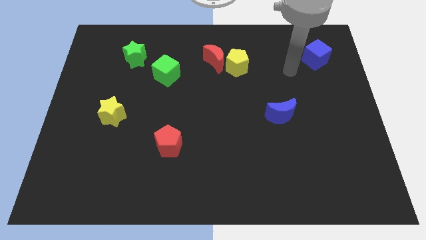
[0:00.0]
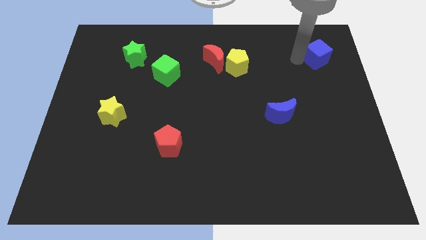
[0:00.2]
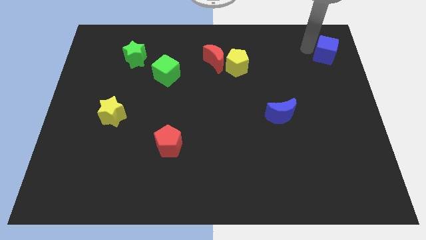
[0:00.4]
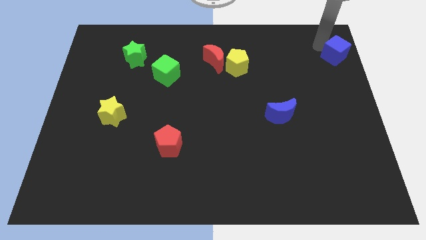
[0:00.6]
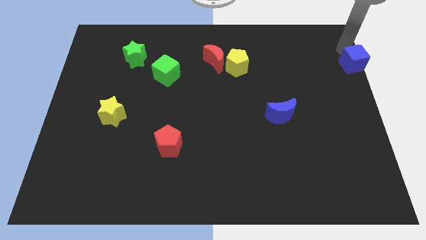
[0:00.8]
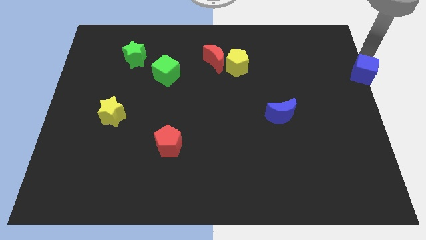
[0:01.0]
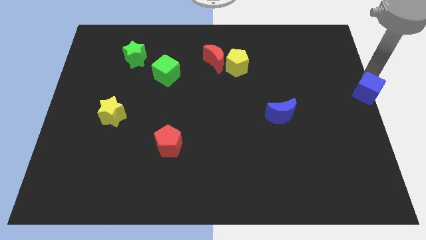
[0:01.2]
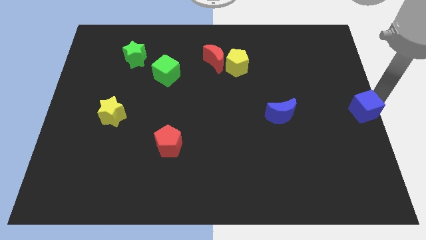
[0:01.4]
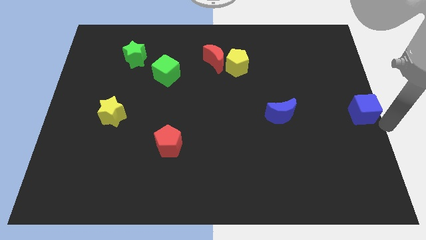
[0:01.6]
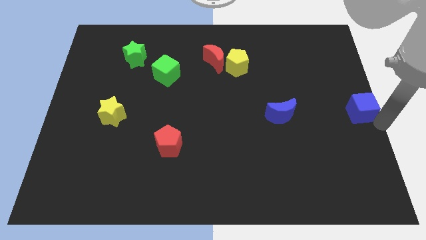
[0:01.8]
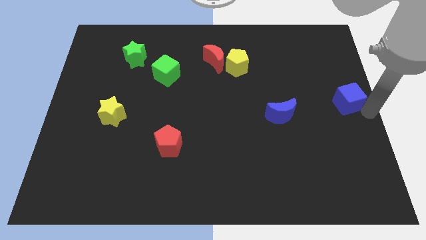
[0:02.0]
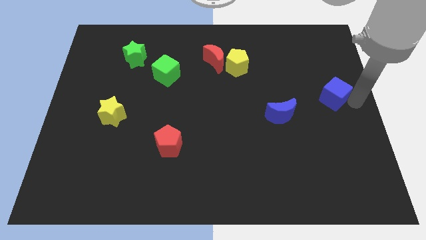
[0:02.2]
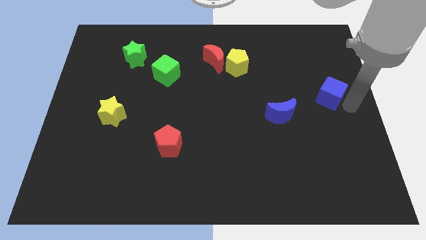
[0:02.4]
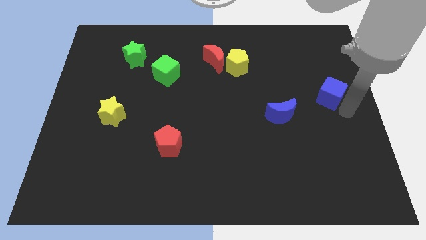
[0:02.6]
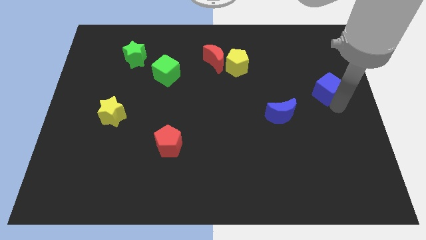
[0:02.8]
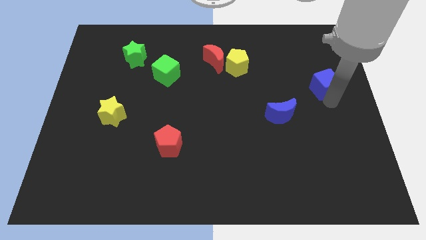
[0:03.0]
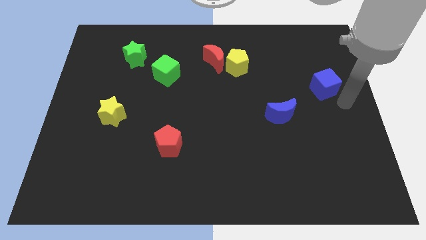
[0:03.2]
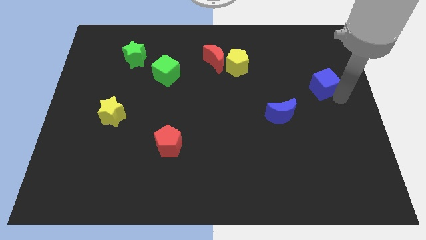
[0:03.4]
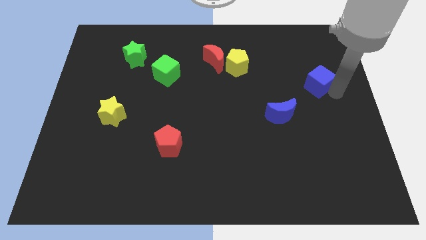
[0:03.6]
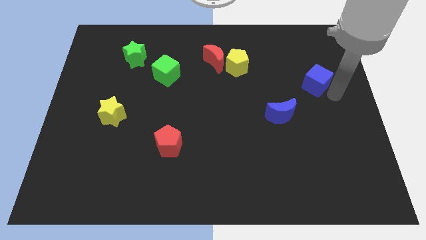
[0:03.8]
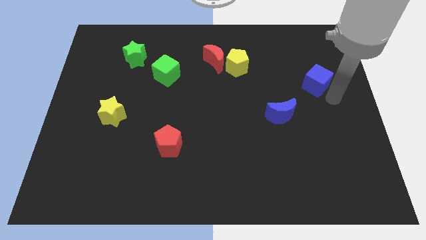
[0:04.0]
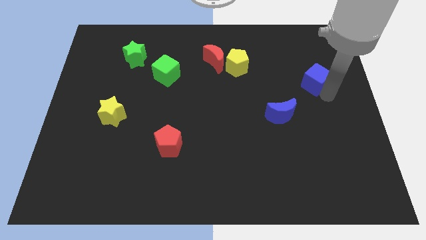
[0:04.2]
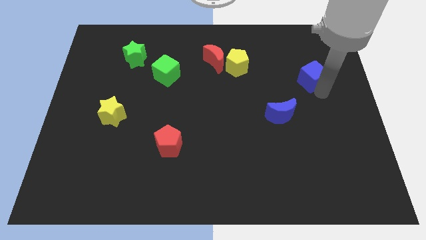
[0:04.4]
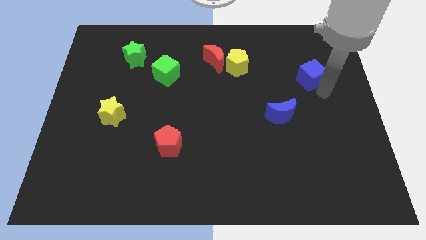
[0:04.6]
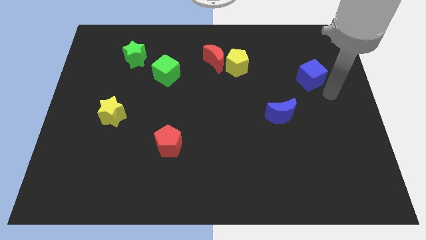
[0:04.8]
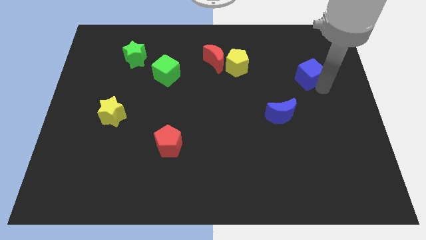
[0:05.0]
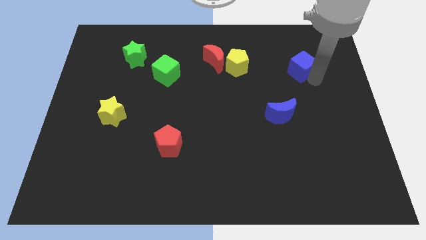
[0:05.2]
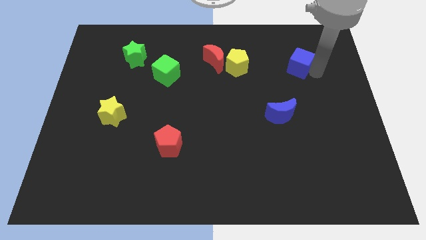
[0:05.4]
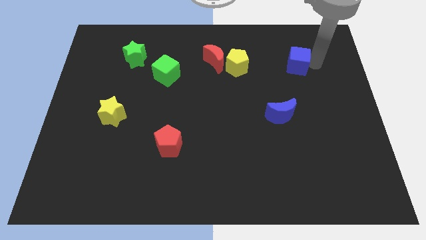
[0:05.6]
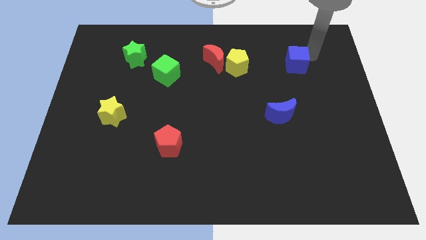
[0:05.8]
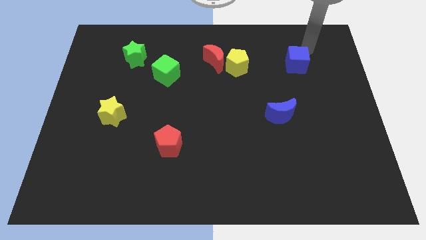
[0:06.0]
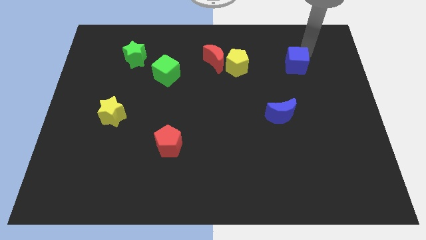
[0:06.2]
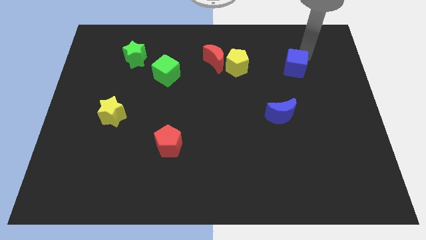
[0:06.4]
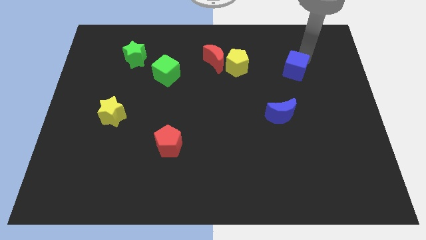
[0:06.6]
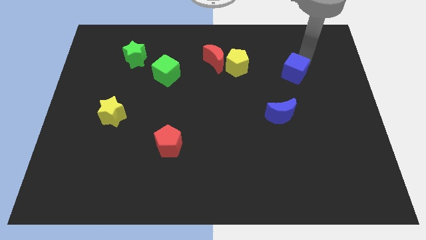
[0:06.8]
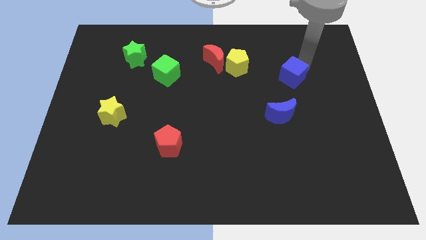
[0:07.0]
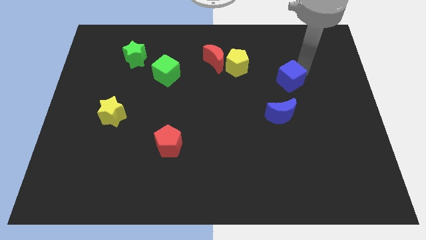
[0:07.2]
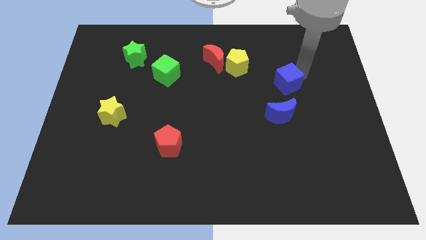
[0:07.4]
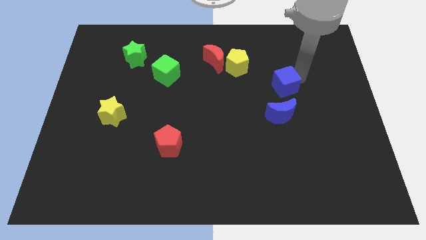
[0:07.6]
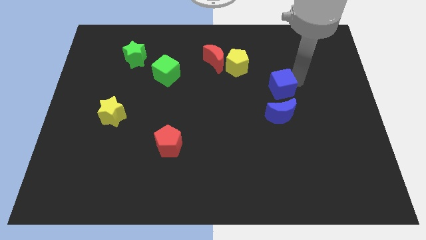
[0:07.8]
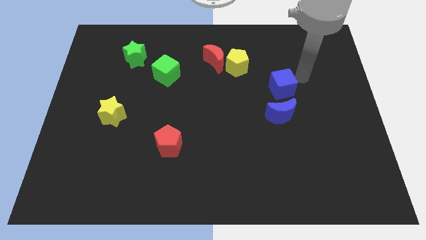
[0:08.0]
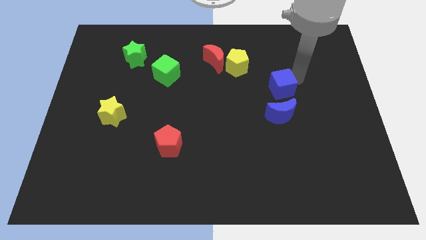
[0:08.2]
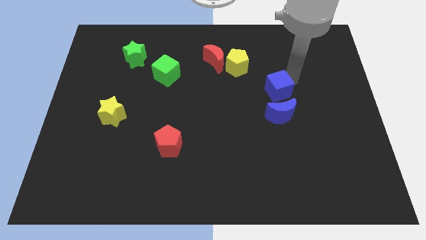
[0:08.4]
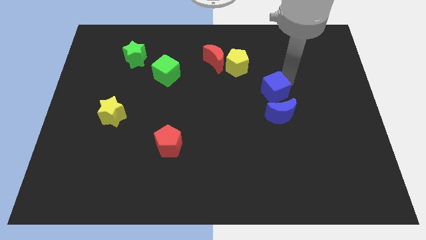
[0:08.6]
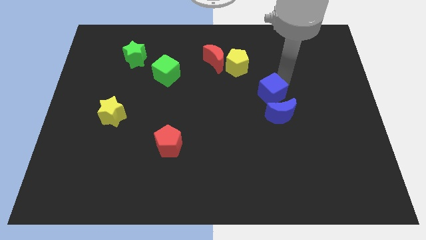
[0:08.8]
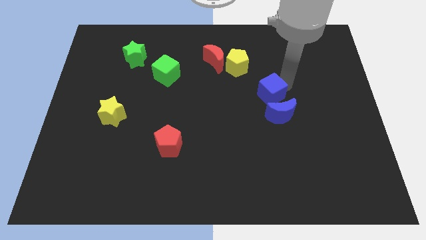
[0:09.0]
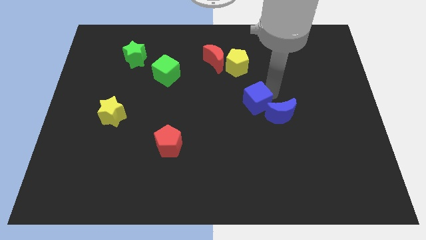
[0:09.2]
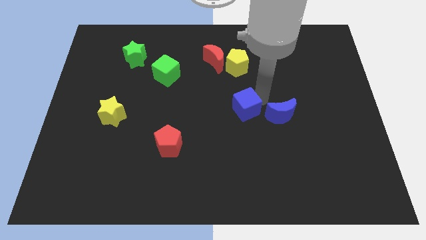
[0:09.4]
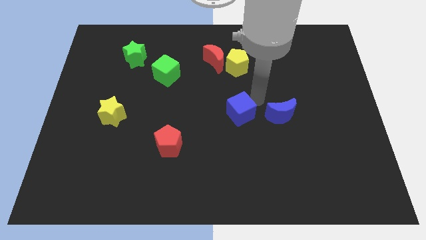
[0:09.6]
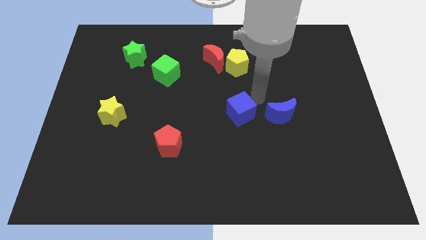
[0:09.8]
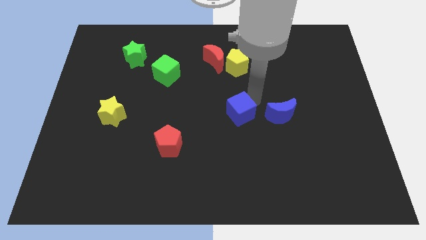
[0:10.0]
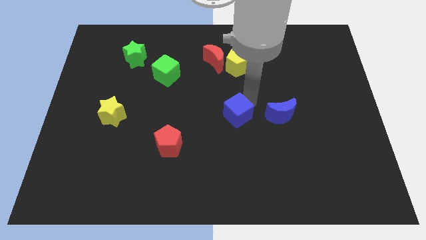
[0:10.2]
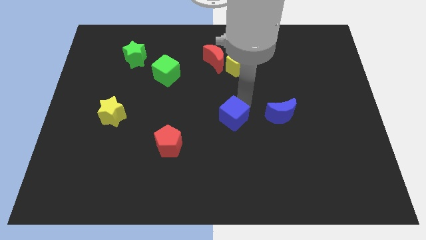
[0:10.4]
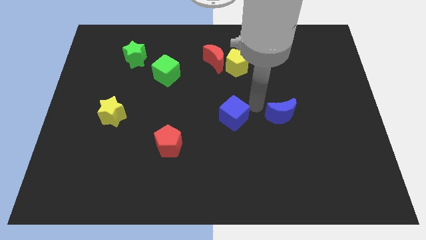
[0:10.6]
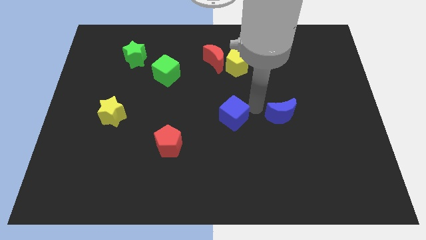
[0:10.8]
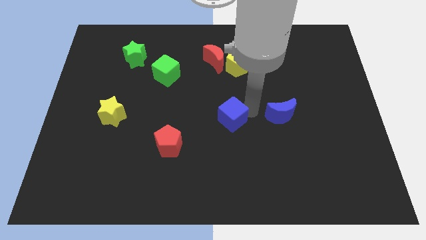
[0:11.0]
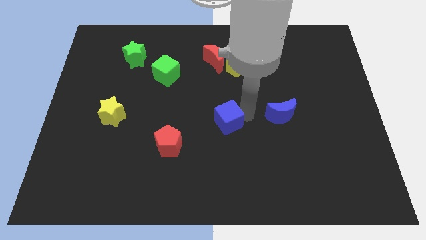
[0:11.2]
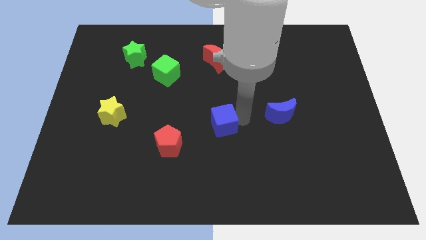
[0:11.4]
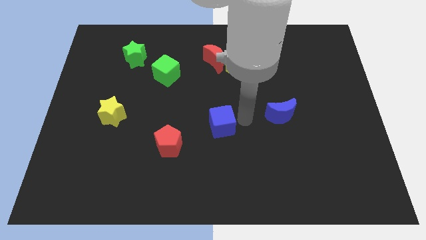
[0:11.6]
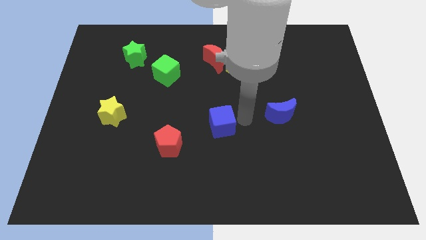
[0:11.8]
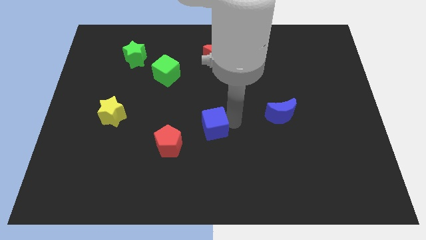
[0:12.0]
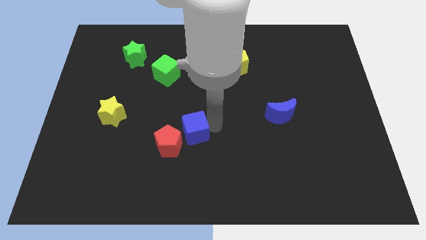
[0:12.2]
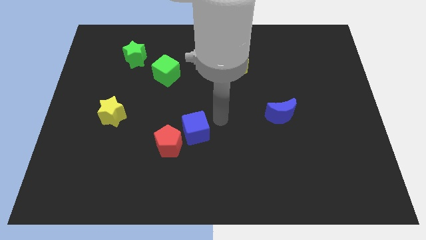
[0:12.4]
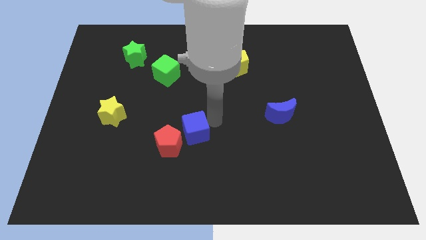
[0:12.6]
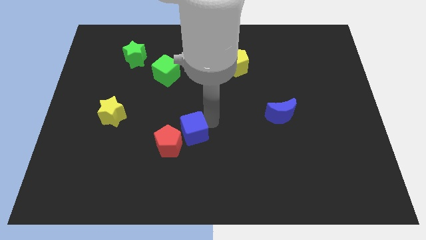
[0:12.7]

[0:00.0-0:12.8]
put the blue cube close to the red pentagon
